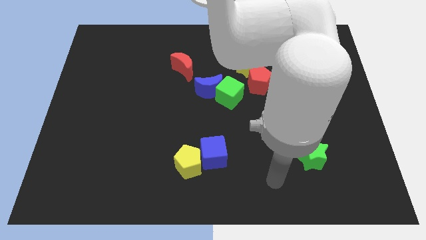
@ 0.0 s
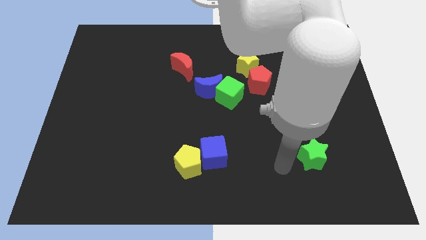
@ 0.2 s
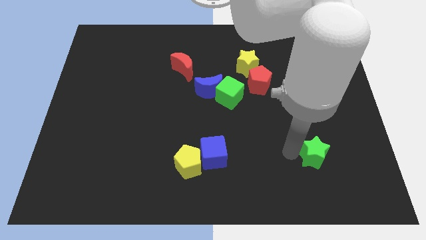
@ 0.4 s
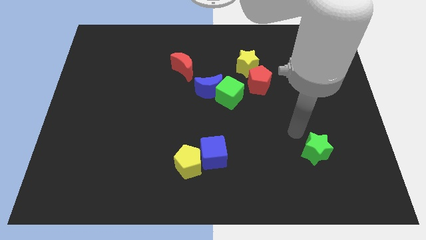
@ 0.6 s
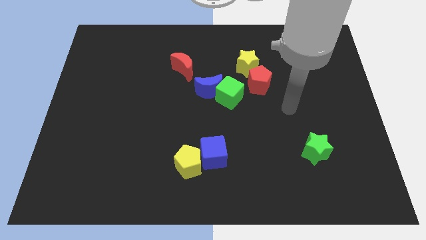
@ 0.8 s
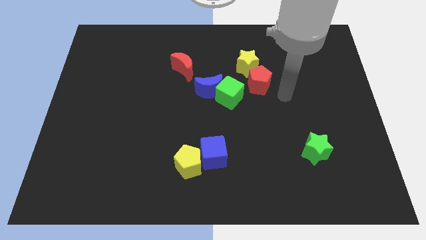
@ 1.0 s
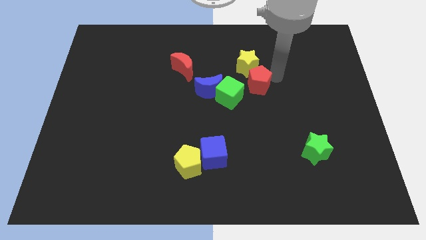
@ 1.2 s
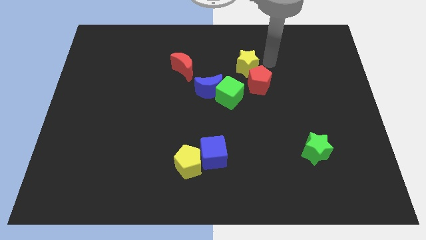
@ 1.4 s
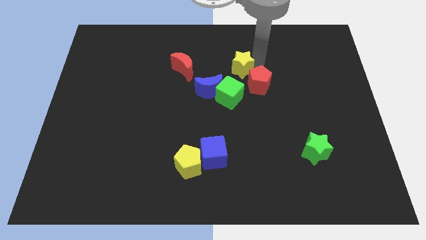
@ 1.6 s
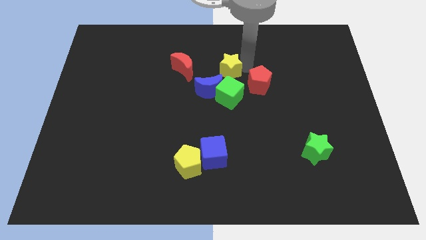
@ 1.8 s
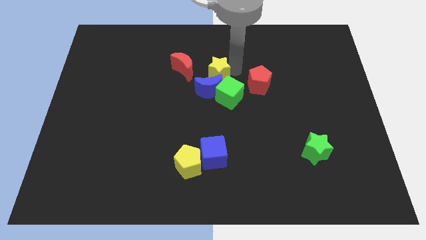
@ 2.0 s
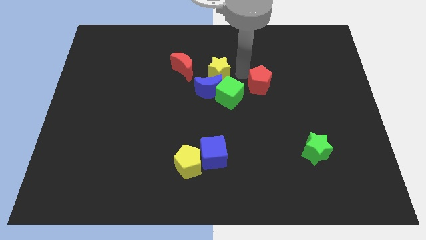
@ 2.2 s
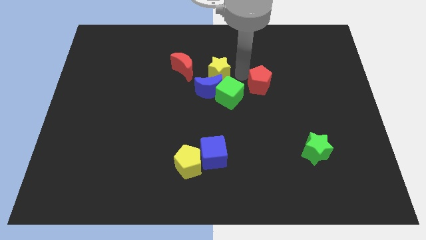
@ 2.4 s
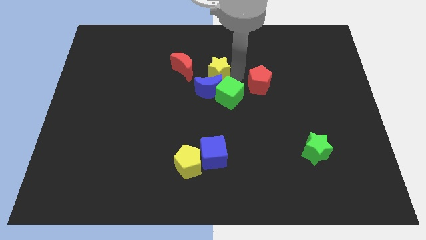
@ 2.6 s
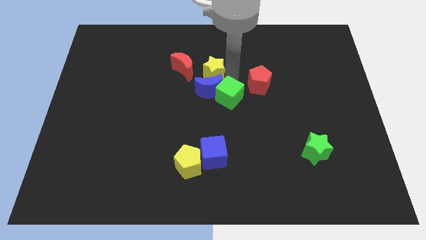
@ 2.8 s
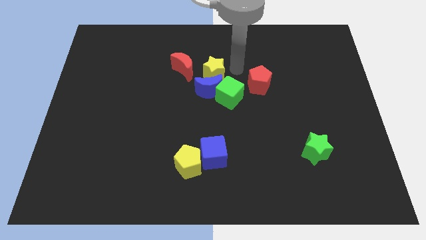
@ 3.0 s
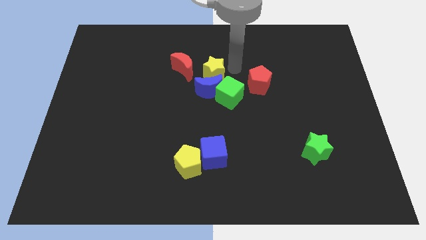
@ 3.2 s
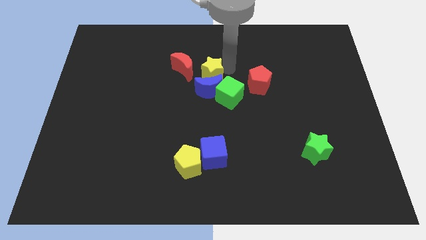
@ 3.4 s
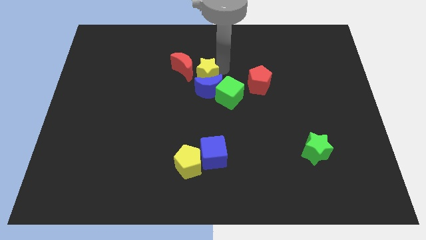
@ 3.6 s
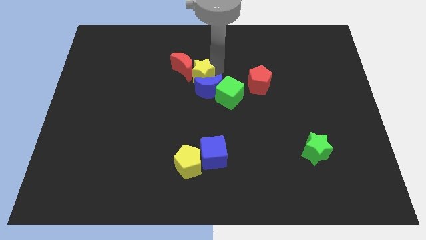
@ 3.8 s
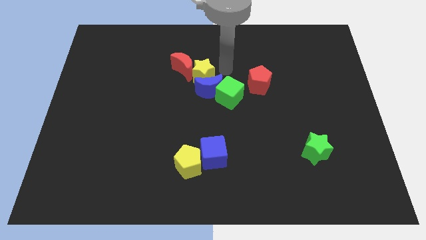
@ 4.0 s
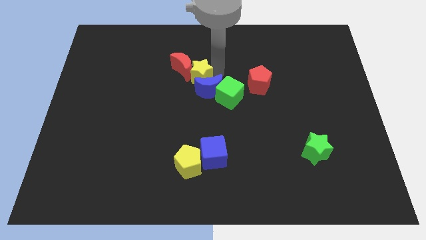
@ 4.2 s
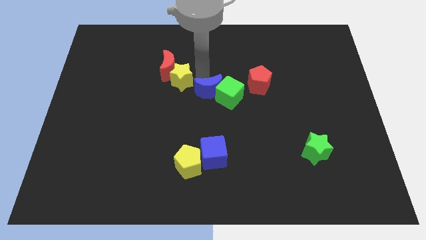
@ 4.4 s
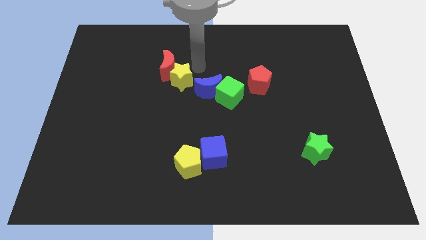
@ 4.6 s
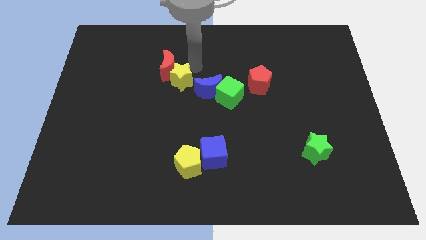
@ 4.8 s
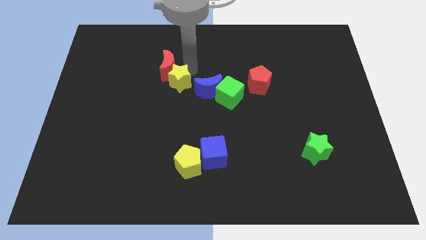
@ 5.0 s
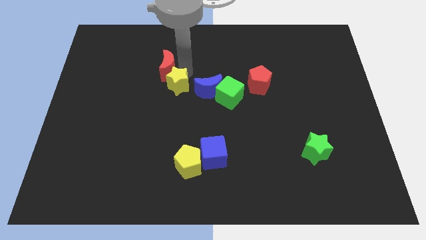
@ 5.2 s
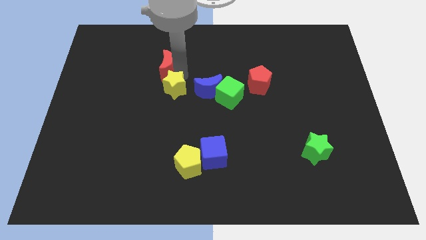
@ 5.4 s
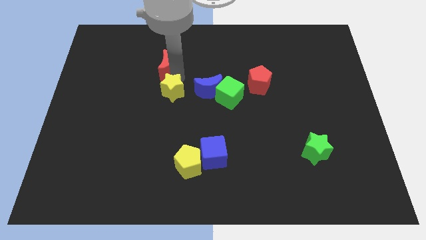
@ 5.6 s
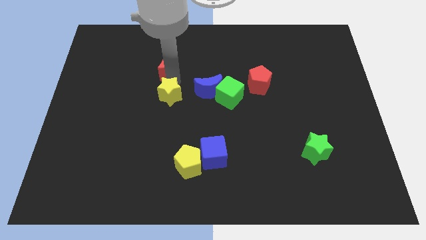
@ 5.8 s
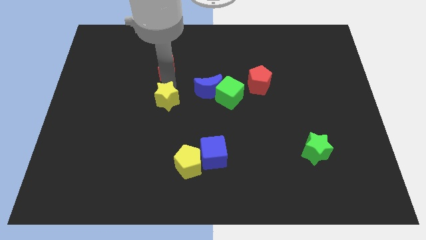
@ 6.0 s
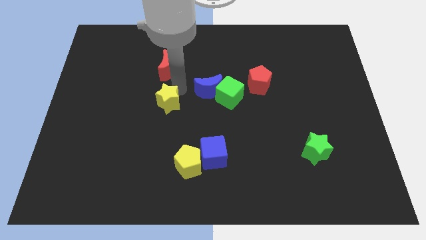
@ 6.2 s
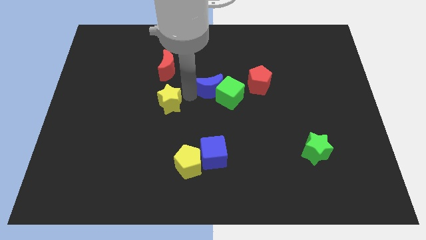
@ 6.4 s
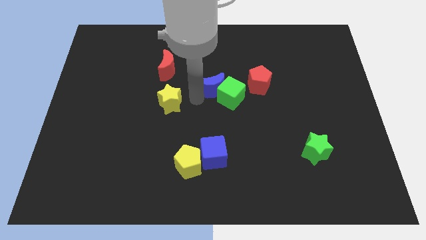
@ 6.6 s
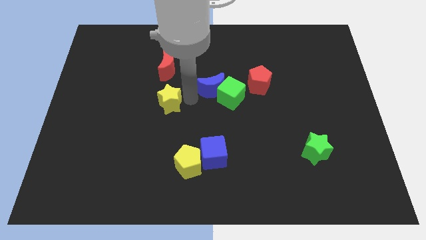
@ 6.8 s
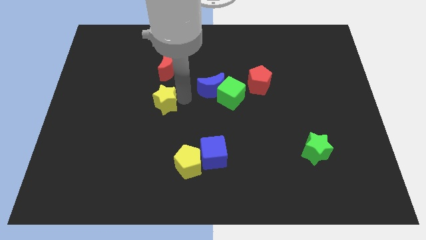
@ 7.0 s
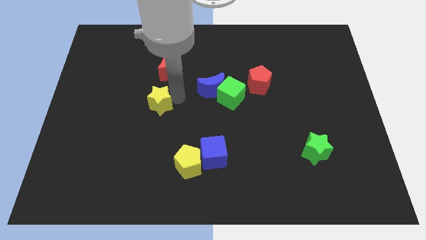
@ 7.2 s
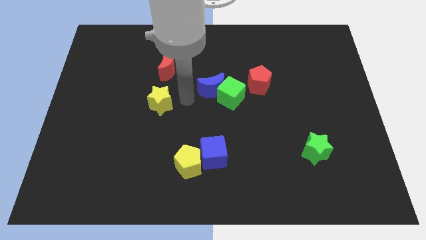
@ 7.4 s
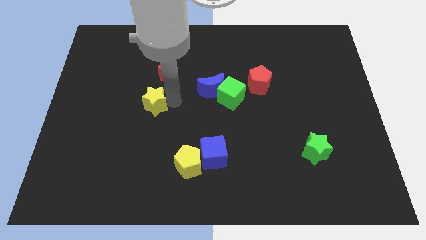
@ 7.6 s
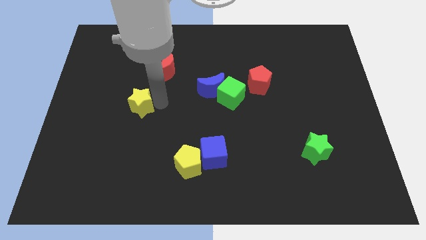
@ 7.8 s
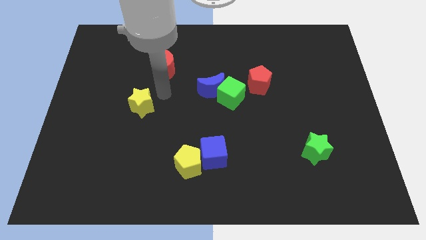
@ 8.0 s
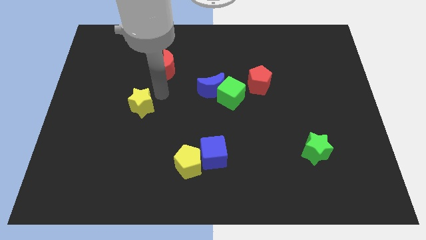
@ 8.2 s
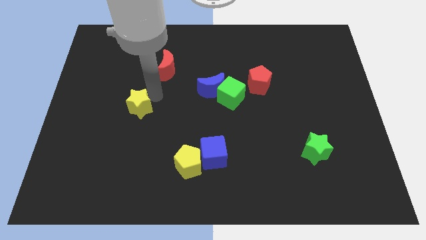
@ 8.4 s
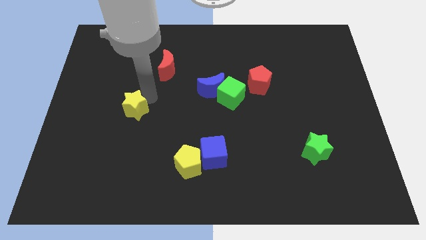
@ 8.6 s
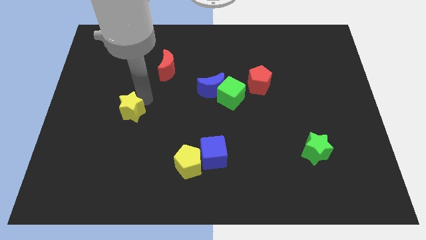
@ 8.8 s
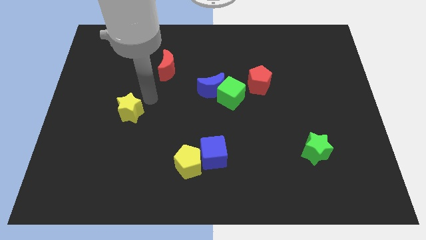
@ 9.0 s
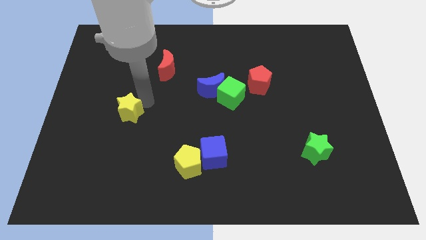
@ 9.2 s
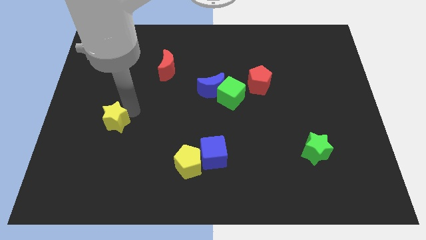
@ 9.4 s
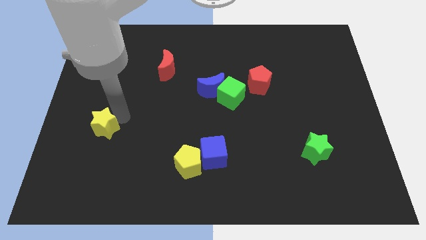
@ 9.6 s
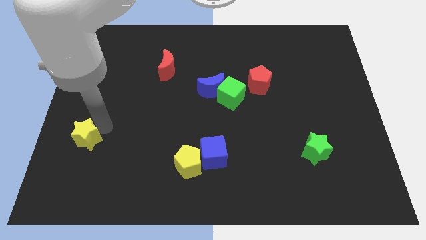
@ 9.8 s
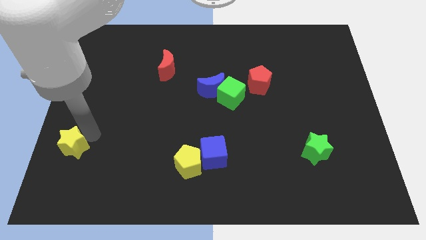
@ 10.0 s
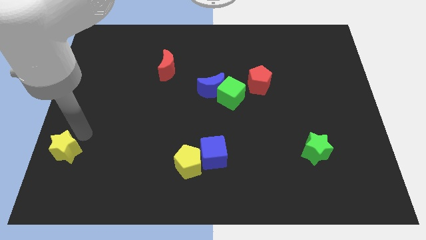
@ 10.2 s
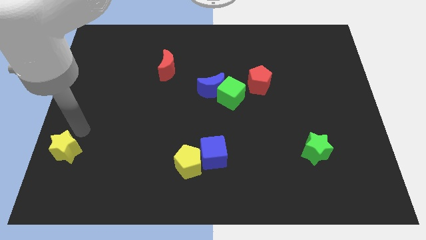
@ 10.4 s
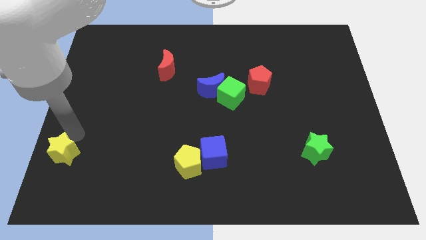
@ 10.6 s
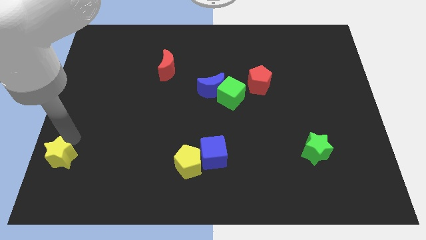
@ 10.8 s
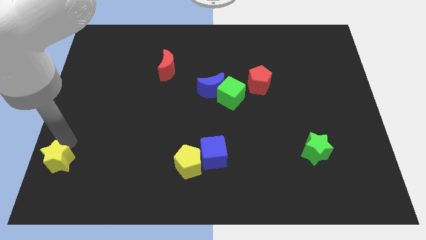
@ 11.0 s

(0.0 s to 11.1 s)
slide the yellow star to the bottom left

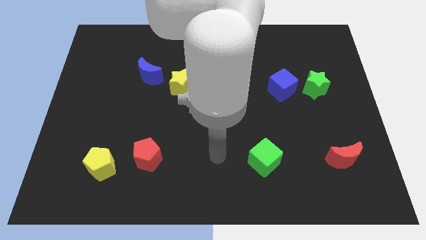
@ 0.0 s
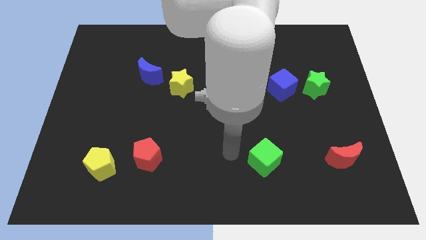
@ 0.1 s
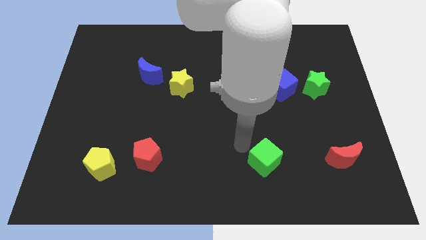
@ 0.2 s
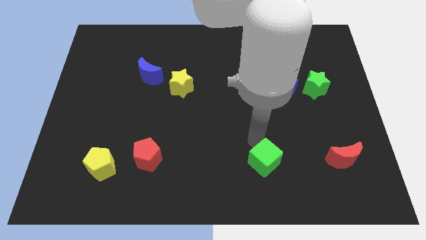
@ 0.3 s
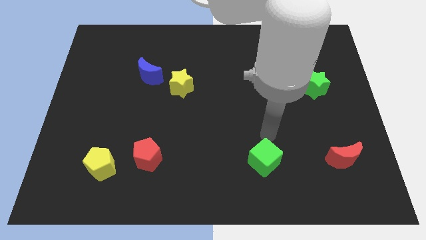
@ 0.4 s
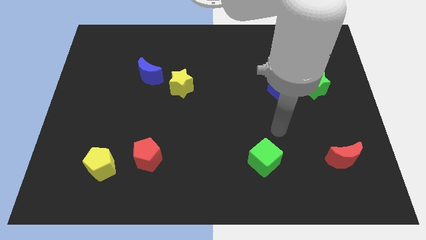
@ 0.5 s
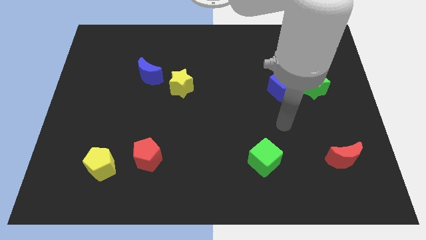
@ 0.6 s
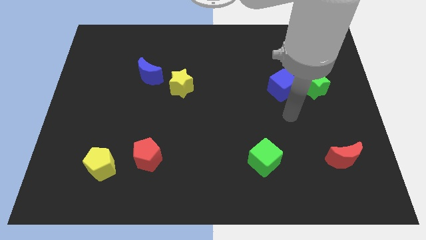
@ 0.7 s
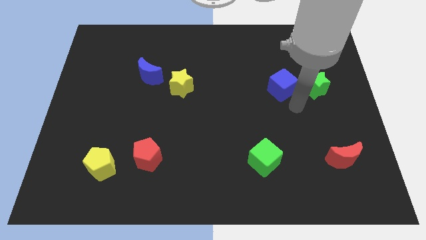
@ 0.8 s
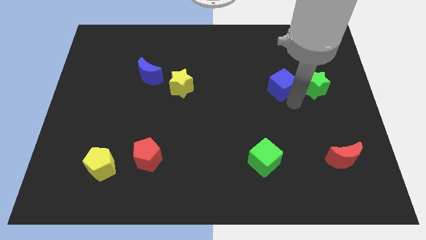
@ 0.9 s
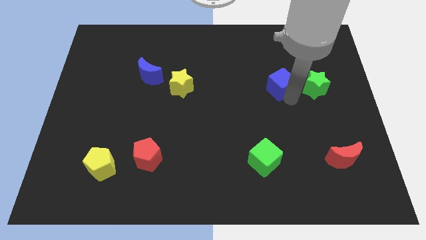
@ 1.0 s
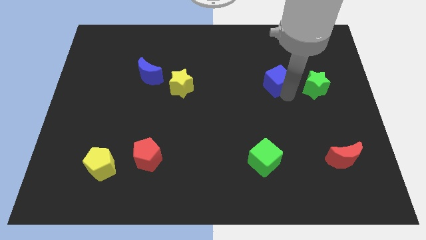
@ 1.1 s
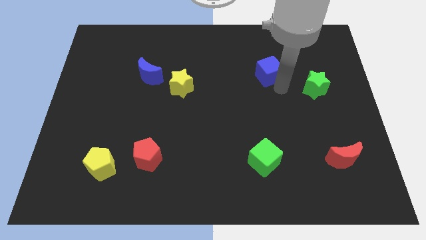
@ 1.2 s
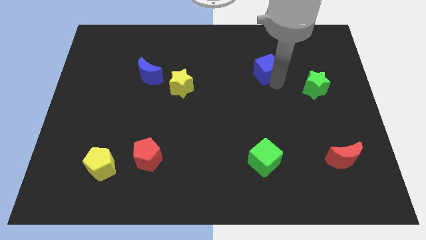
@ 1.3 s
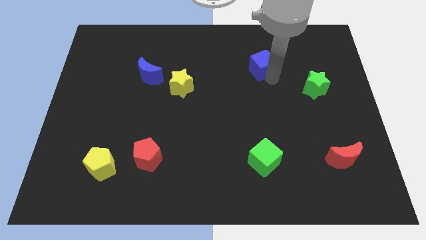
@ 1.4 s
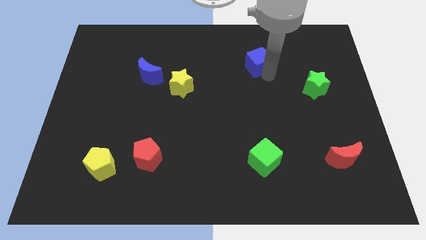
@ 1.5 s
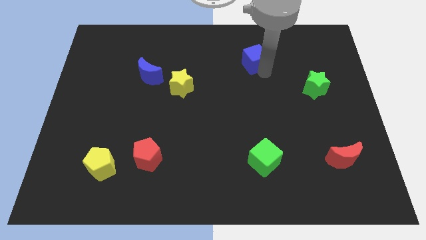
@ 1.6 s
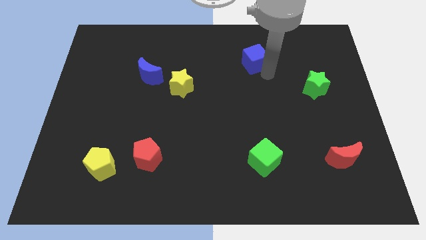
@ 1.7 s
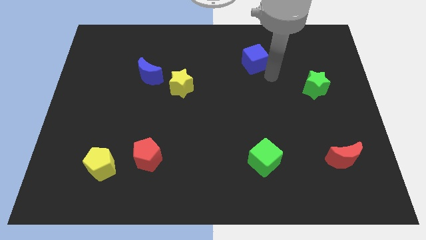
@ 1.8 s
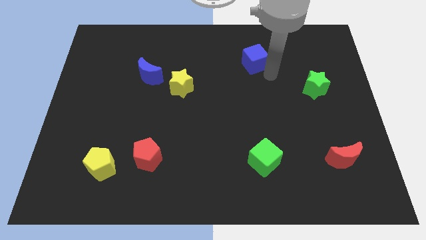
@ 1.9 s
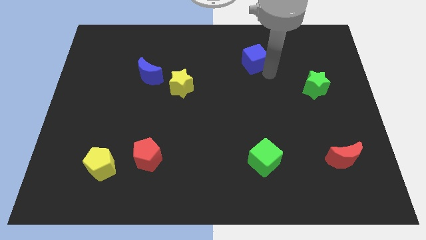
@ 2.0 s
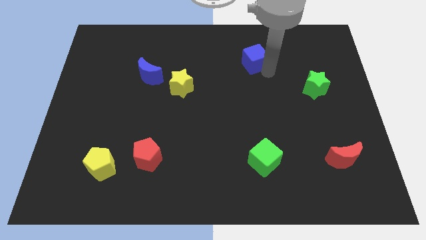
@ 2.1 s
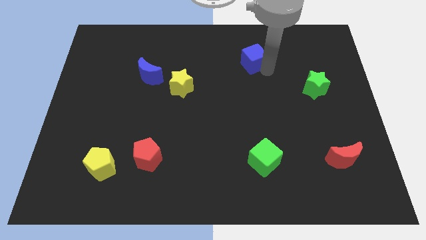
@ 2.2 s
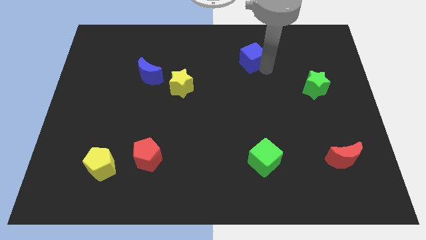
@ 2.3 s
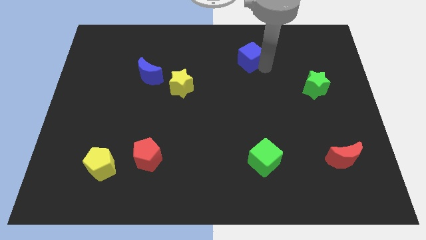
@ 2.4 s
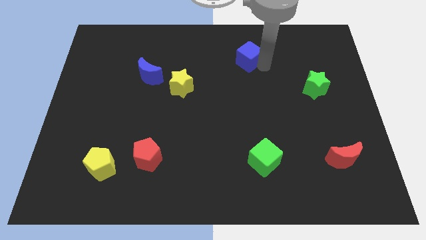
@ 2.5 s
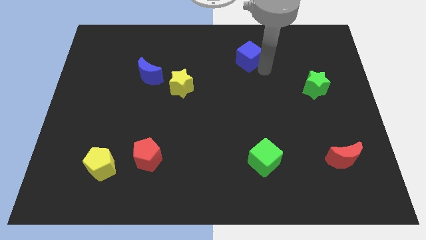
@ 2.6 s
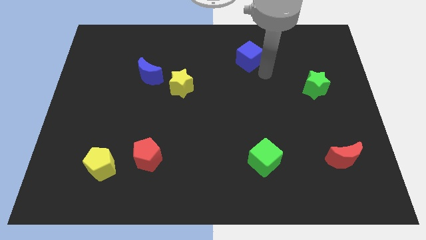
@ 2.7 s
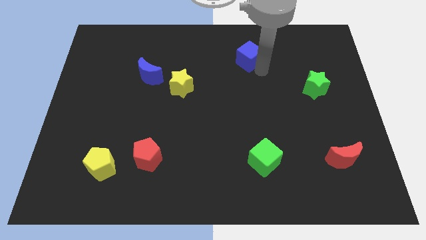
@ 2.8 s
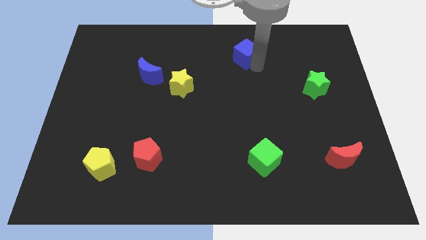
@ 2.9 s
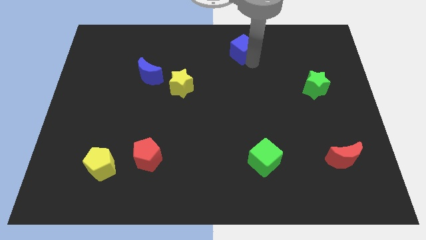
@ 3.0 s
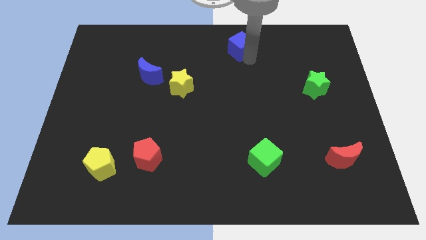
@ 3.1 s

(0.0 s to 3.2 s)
slide the blue cube to the top side
